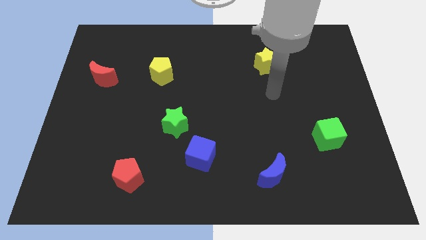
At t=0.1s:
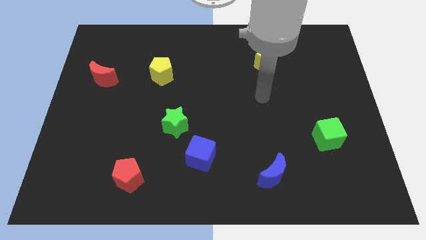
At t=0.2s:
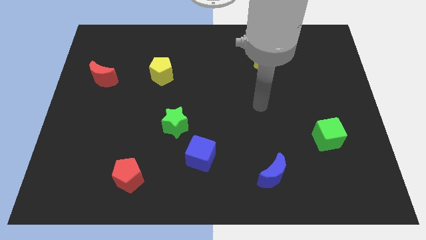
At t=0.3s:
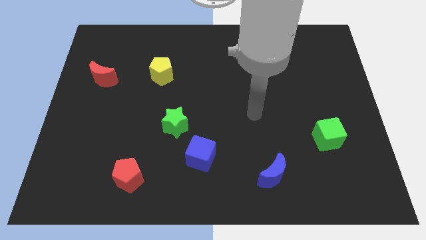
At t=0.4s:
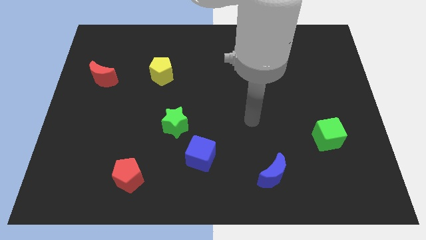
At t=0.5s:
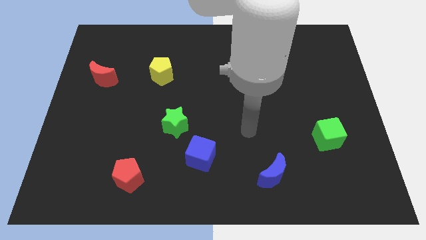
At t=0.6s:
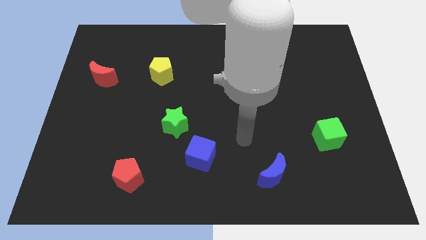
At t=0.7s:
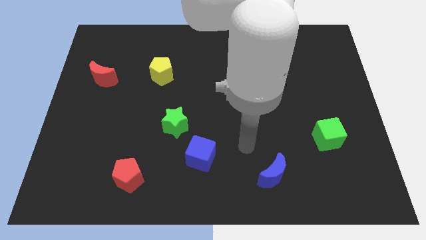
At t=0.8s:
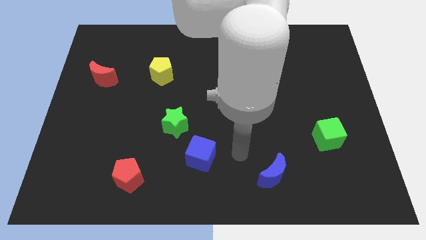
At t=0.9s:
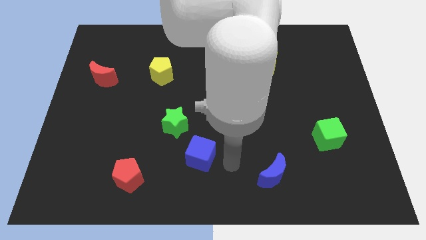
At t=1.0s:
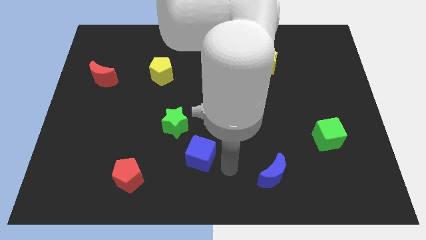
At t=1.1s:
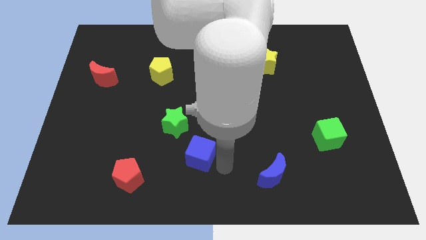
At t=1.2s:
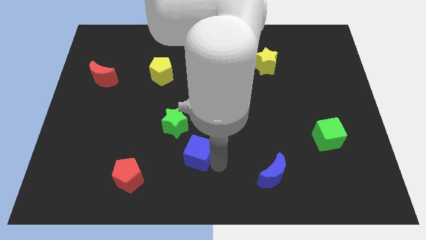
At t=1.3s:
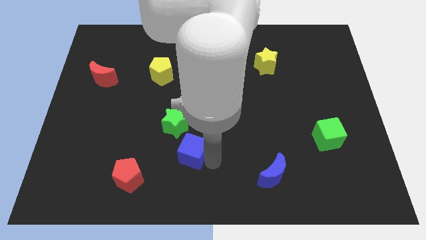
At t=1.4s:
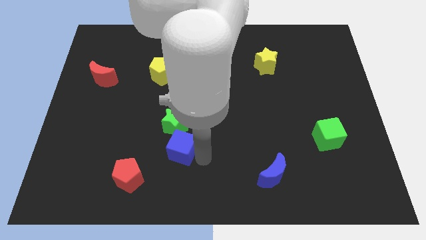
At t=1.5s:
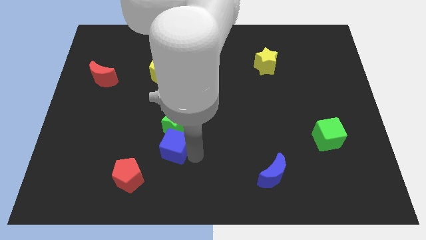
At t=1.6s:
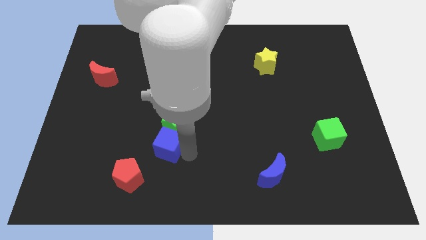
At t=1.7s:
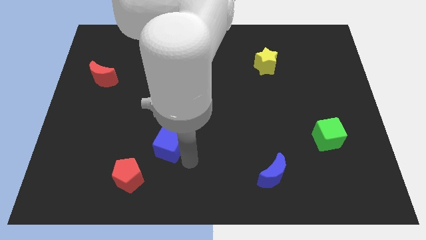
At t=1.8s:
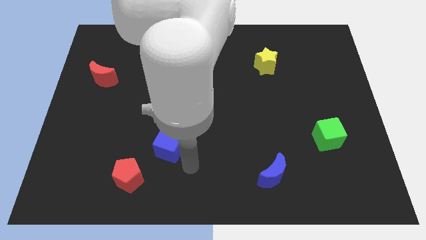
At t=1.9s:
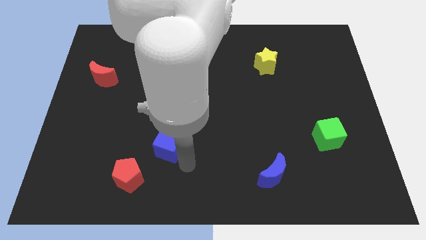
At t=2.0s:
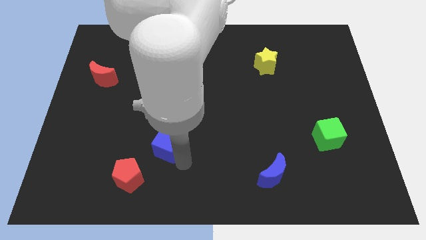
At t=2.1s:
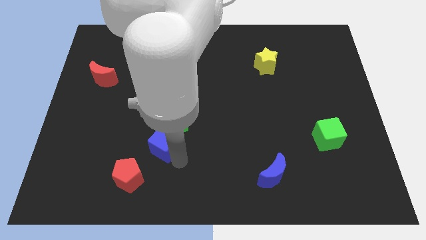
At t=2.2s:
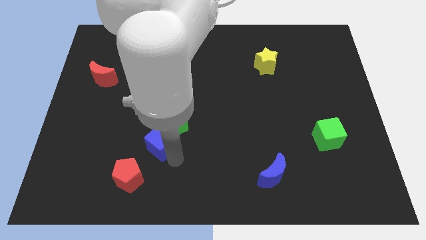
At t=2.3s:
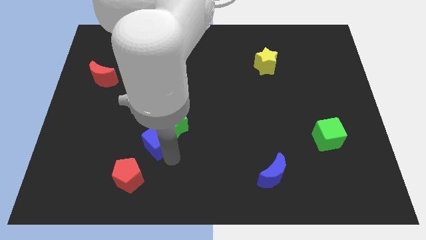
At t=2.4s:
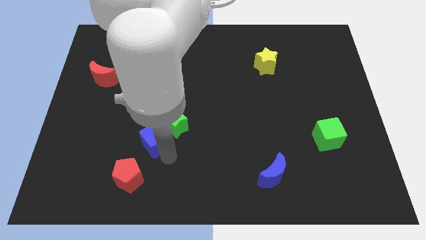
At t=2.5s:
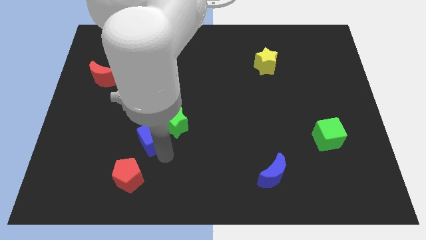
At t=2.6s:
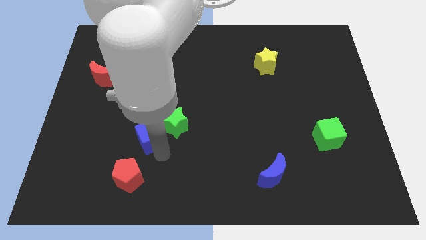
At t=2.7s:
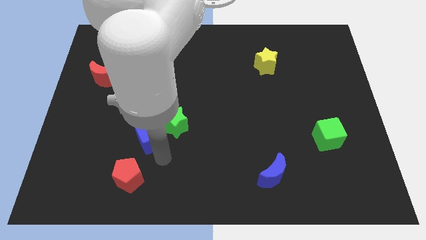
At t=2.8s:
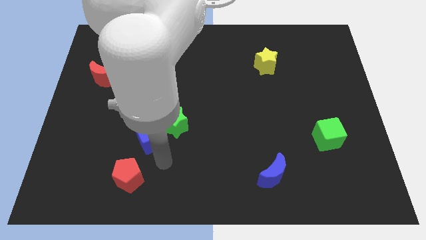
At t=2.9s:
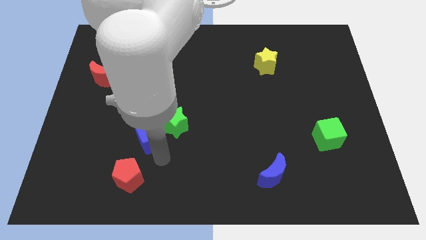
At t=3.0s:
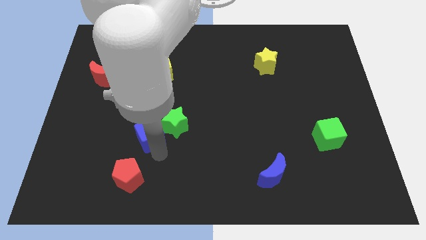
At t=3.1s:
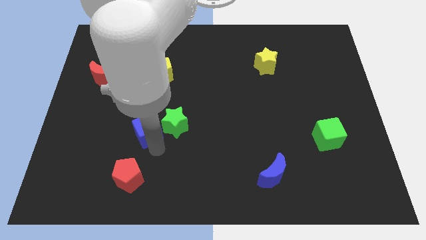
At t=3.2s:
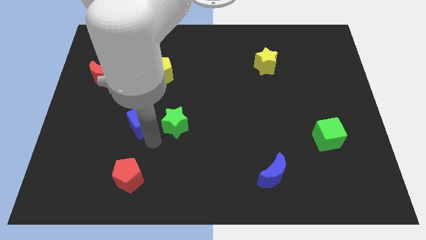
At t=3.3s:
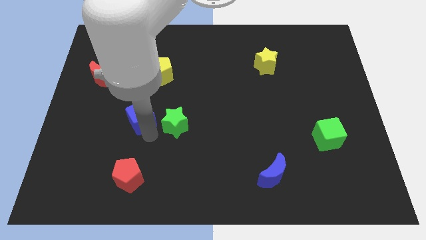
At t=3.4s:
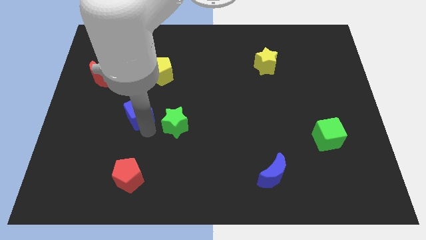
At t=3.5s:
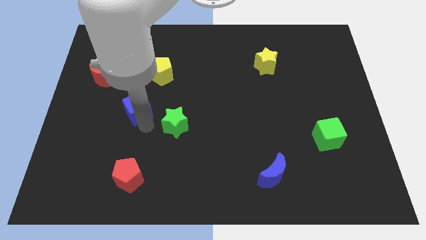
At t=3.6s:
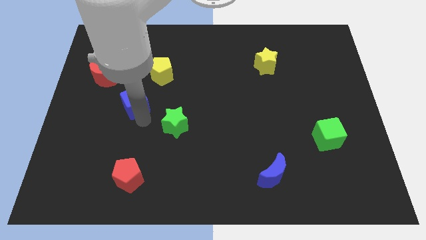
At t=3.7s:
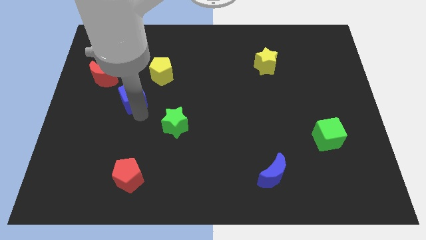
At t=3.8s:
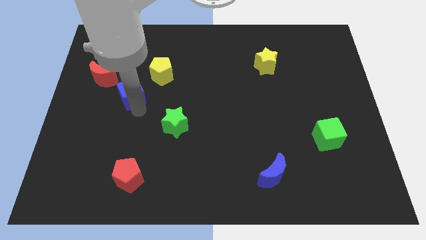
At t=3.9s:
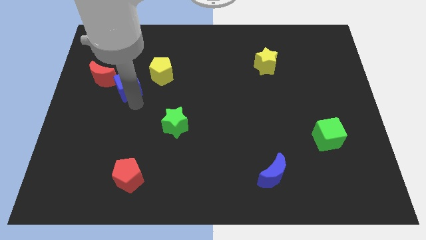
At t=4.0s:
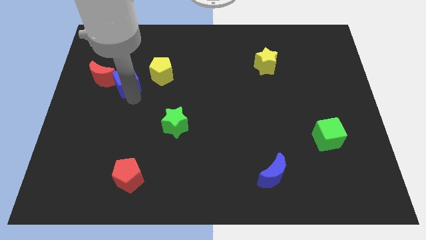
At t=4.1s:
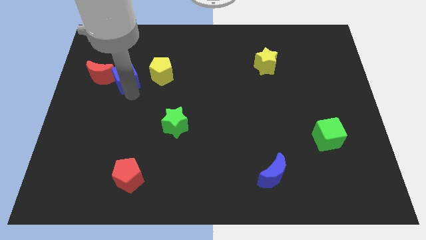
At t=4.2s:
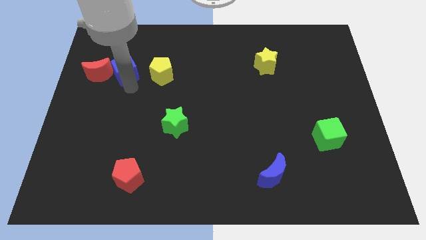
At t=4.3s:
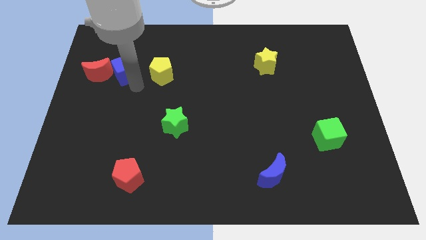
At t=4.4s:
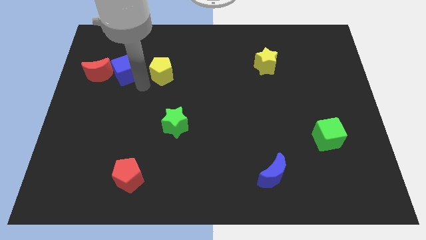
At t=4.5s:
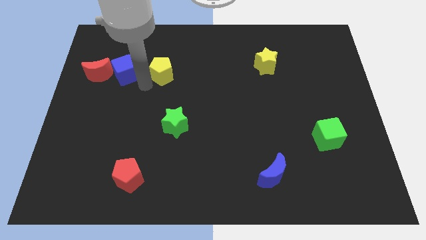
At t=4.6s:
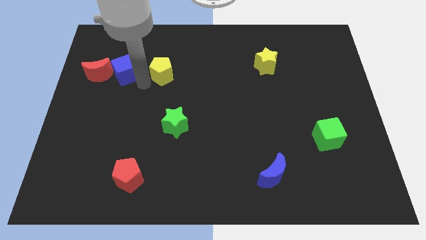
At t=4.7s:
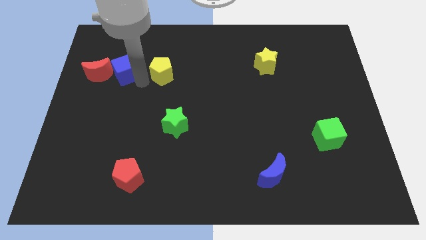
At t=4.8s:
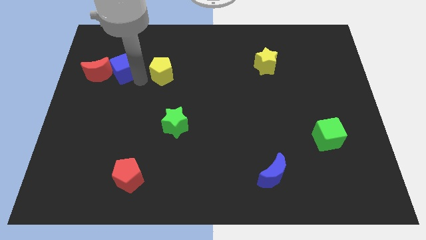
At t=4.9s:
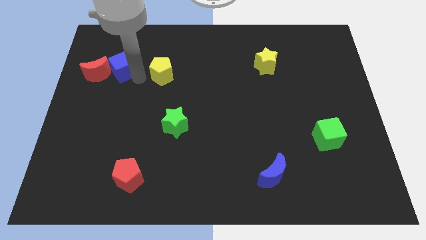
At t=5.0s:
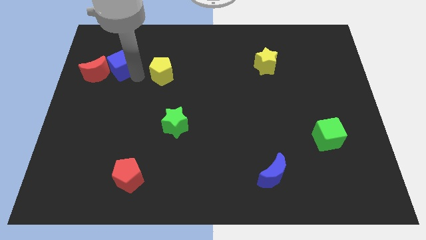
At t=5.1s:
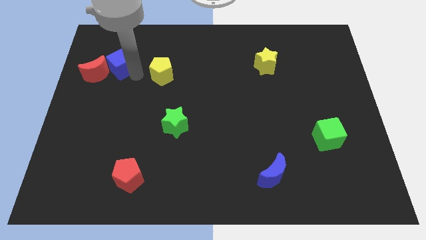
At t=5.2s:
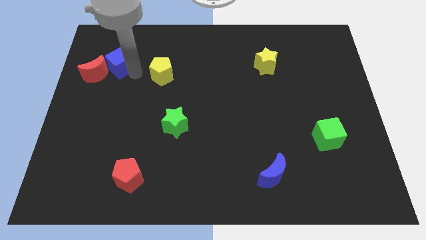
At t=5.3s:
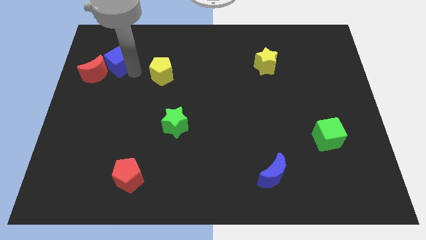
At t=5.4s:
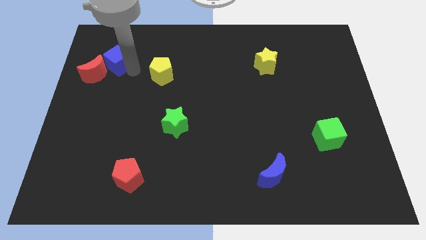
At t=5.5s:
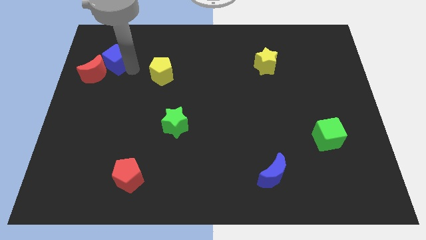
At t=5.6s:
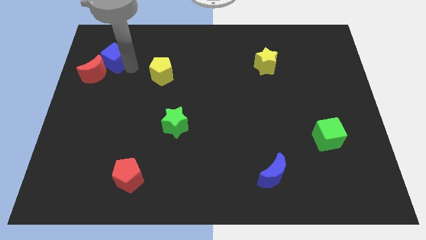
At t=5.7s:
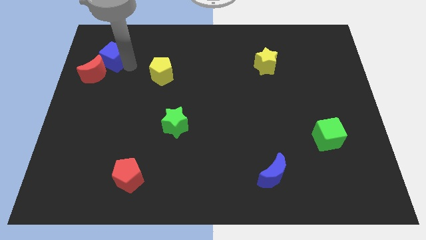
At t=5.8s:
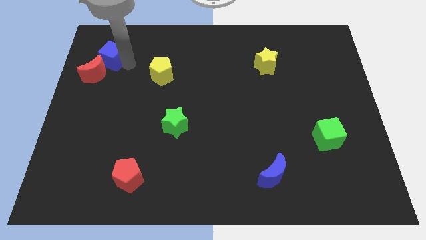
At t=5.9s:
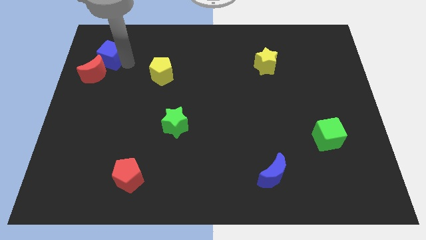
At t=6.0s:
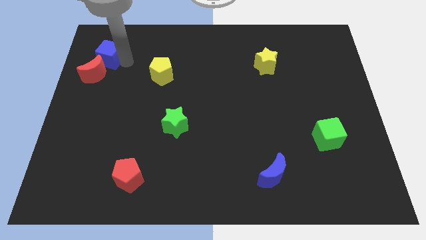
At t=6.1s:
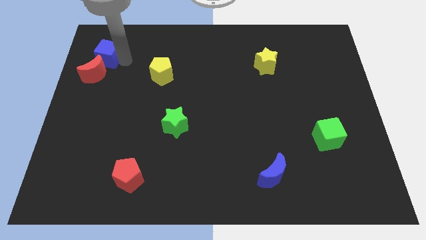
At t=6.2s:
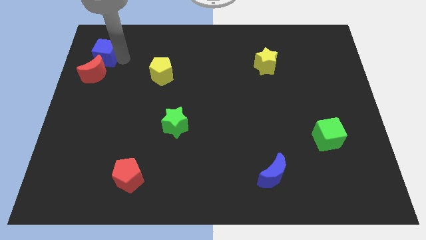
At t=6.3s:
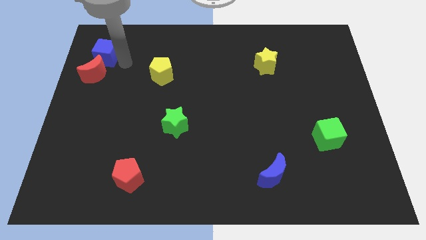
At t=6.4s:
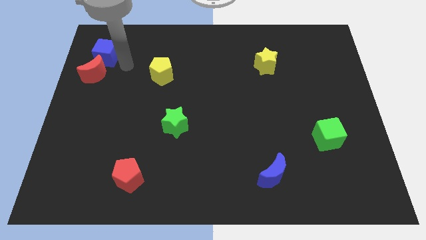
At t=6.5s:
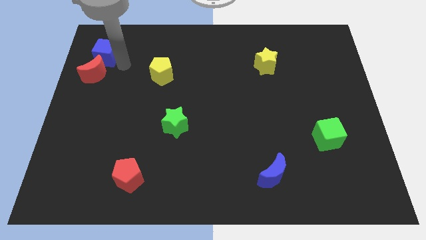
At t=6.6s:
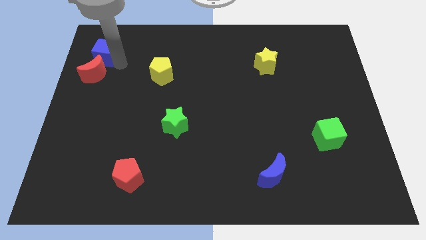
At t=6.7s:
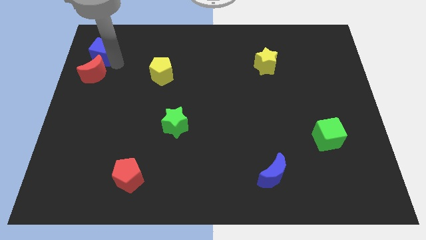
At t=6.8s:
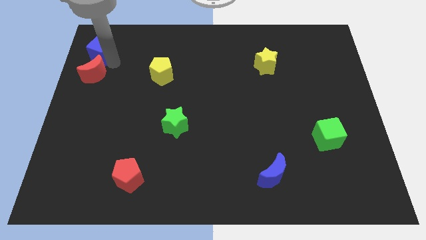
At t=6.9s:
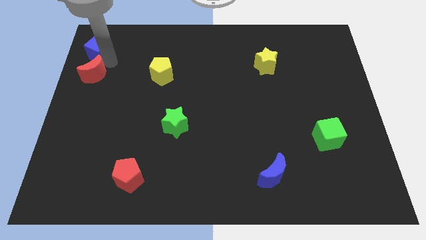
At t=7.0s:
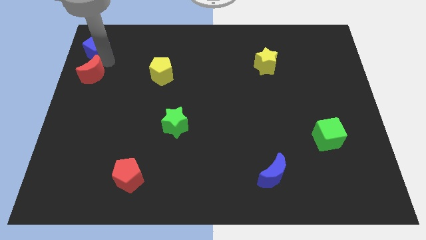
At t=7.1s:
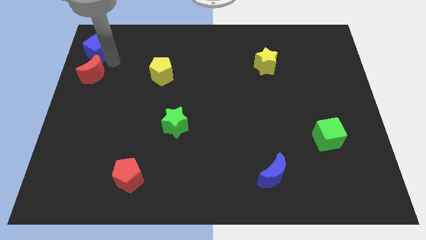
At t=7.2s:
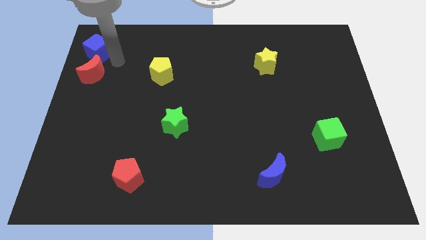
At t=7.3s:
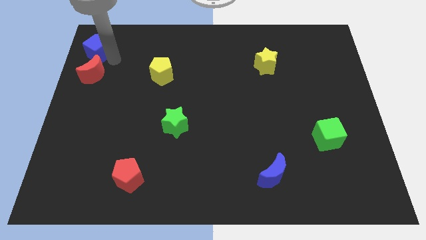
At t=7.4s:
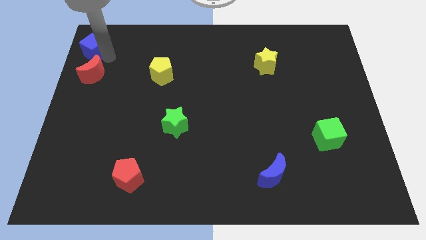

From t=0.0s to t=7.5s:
push the blue cube to the upper left corner
